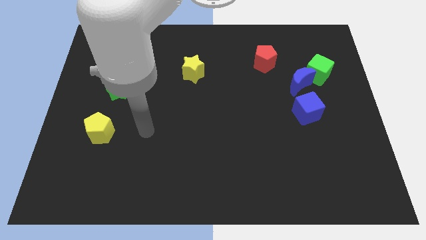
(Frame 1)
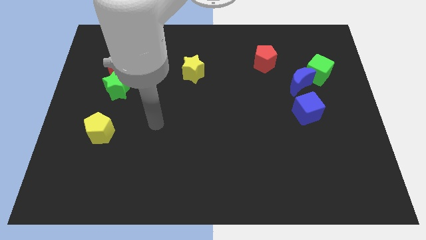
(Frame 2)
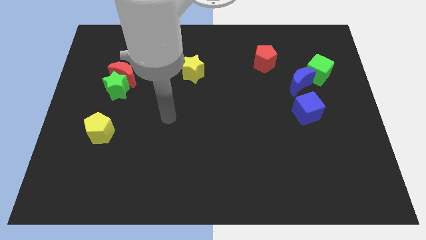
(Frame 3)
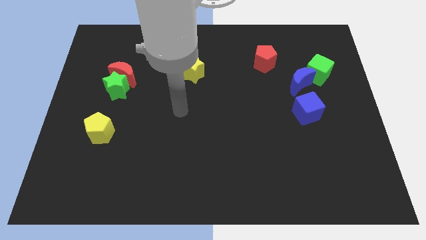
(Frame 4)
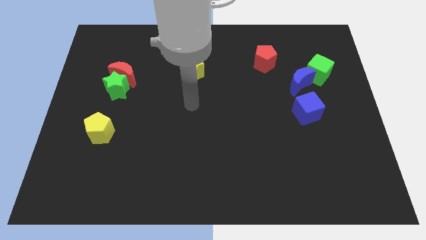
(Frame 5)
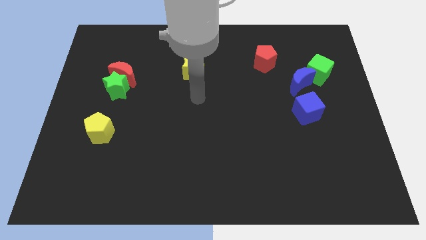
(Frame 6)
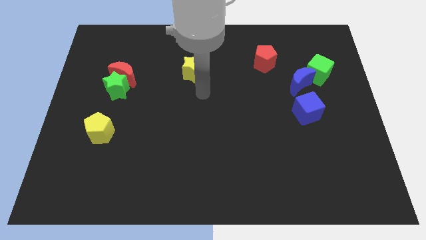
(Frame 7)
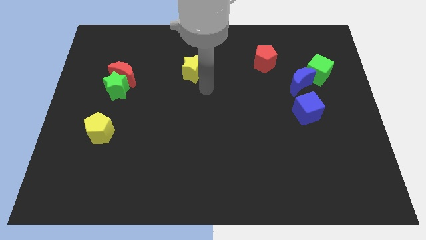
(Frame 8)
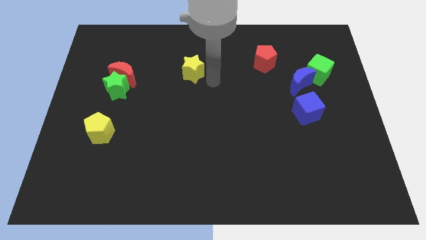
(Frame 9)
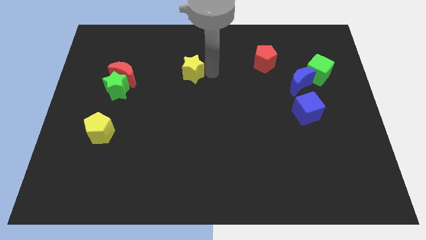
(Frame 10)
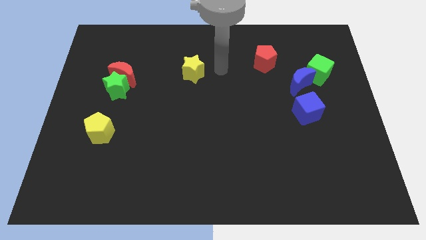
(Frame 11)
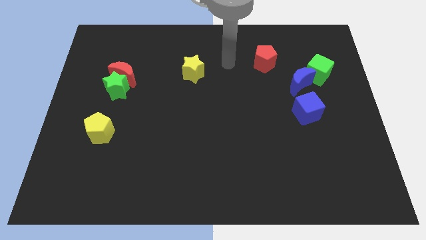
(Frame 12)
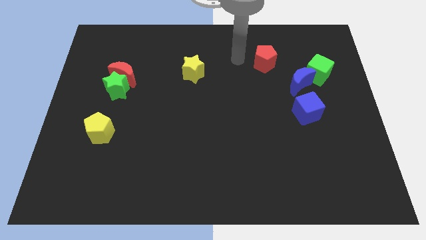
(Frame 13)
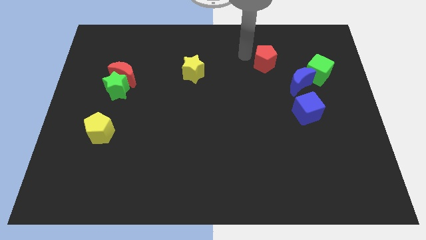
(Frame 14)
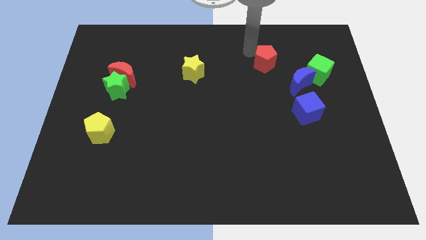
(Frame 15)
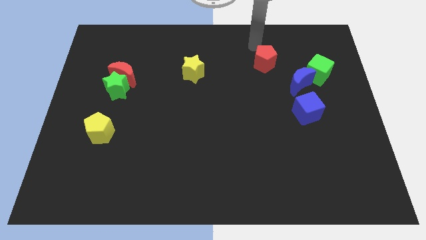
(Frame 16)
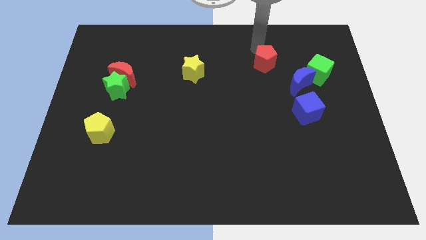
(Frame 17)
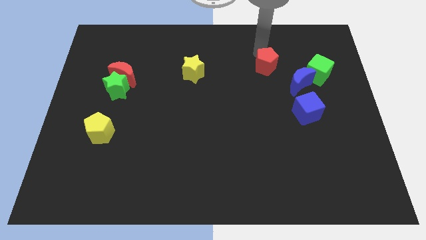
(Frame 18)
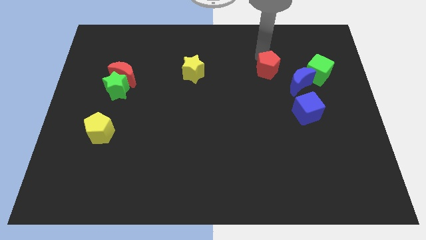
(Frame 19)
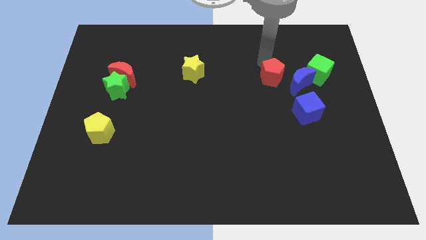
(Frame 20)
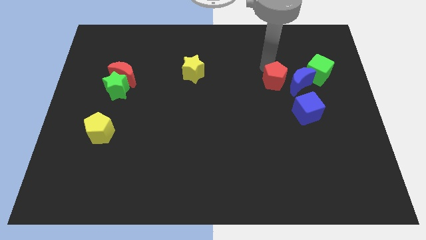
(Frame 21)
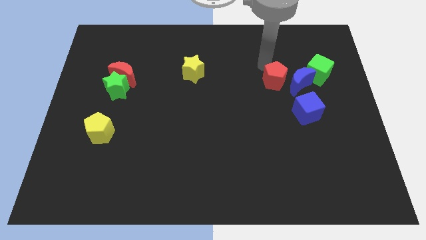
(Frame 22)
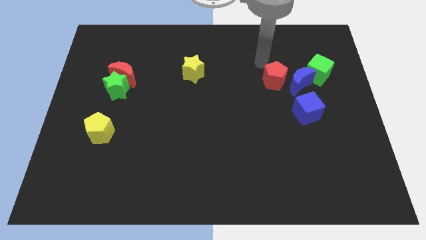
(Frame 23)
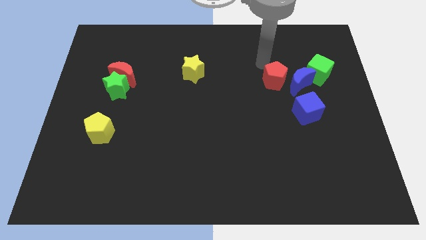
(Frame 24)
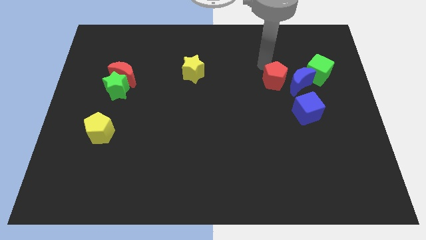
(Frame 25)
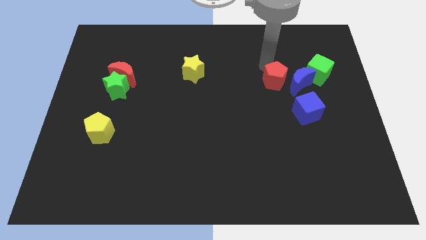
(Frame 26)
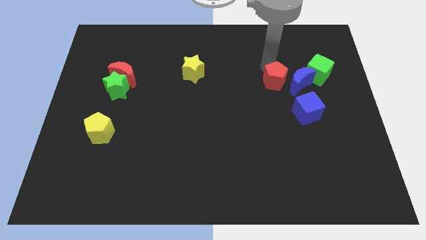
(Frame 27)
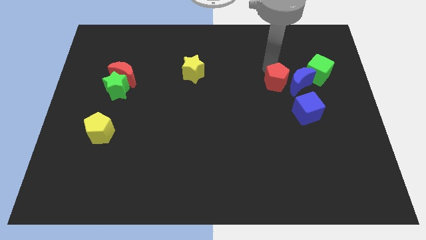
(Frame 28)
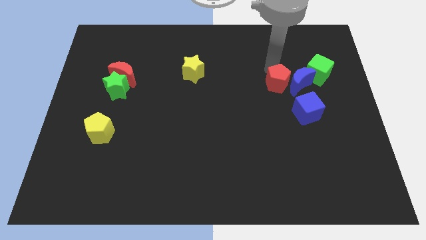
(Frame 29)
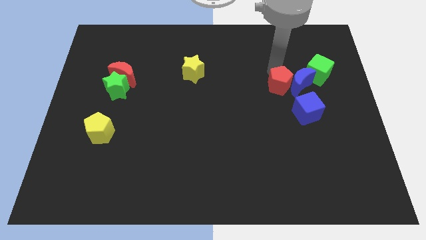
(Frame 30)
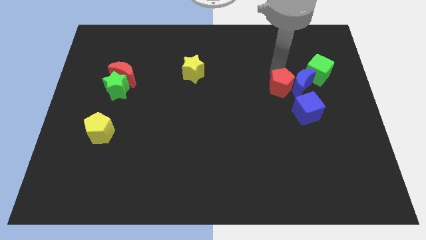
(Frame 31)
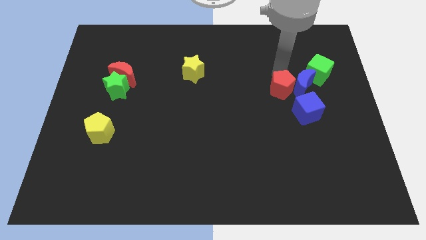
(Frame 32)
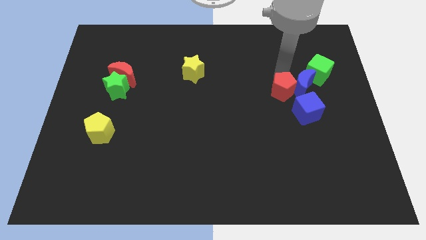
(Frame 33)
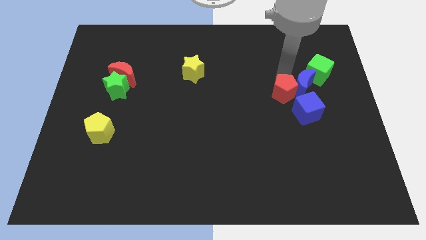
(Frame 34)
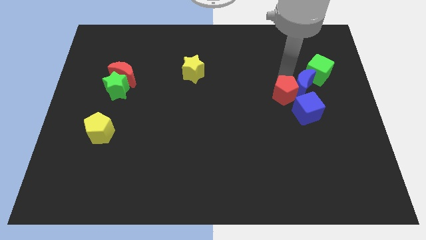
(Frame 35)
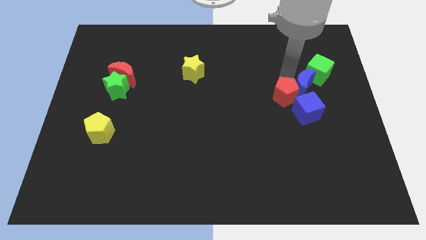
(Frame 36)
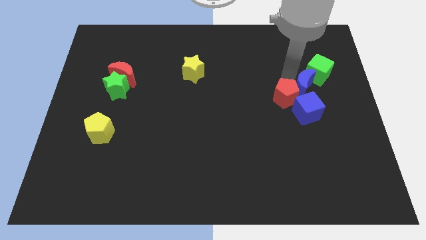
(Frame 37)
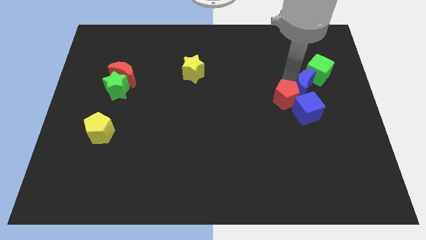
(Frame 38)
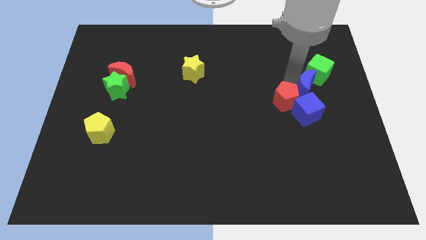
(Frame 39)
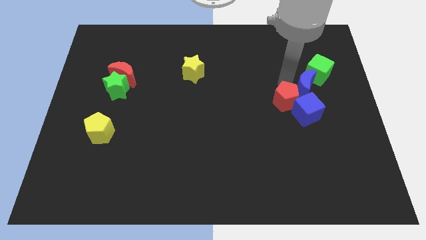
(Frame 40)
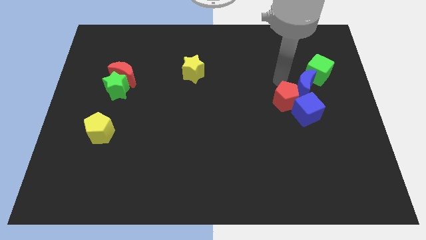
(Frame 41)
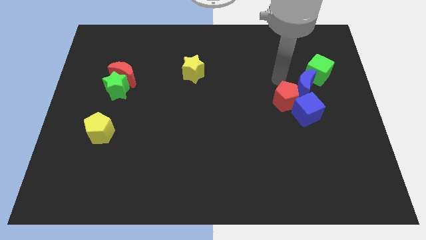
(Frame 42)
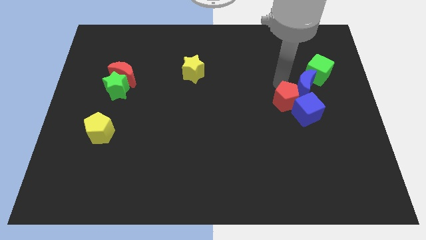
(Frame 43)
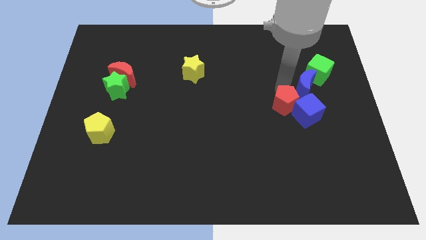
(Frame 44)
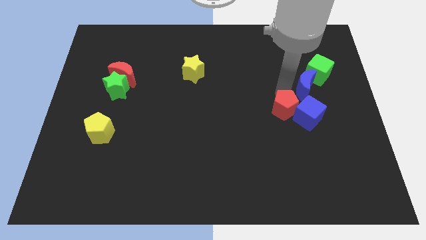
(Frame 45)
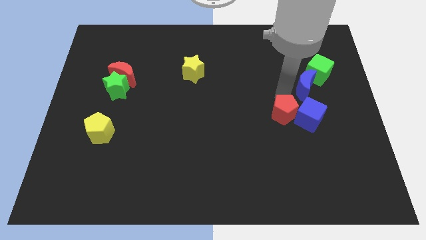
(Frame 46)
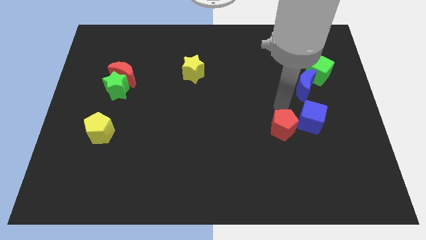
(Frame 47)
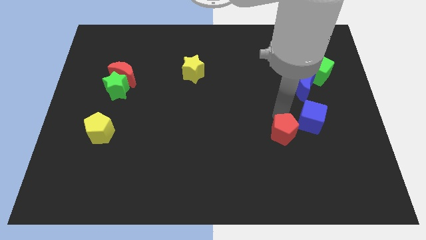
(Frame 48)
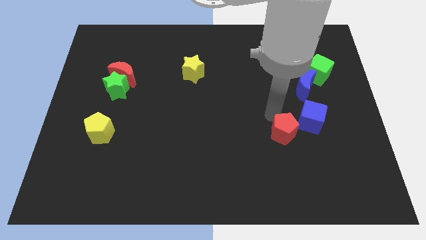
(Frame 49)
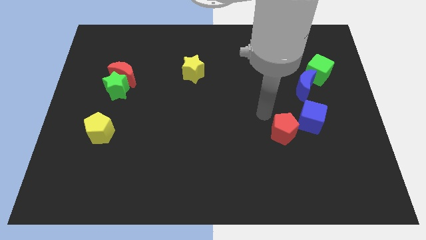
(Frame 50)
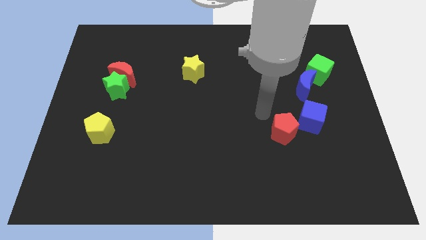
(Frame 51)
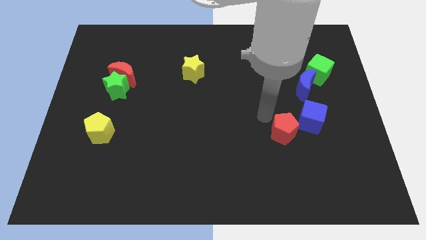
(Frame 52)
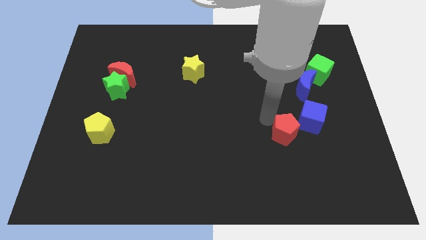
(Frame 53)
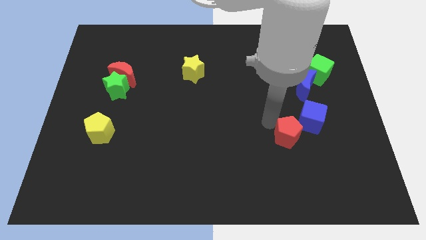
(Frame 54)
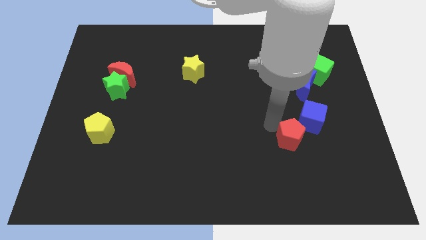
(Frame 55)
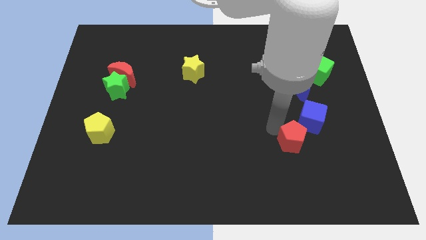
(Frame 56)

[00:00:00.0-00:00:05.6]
move the red pentagon to the bottom of the blue cube

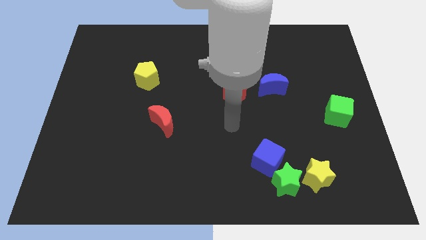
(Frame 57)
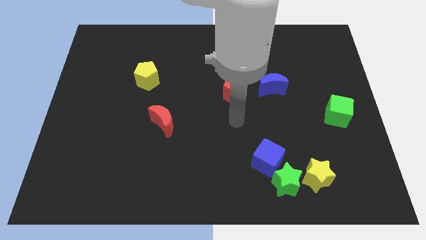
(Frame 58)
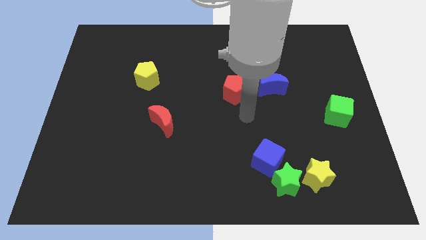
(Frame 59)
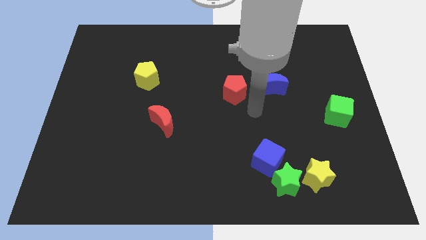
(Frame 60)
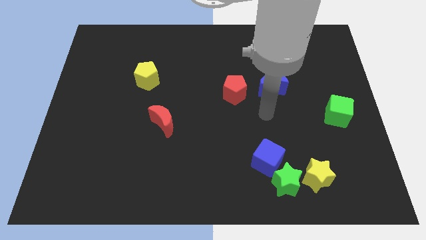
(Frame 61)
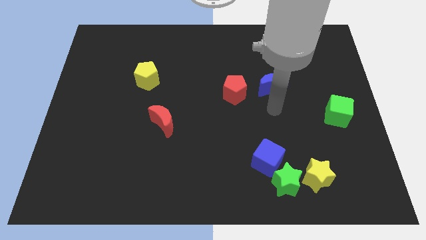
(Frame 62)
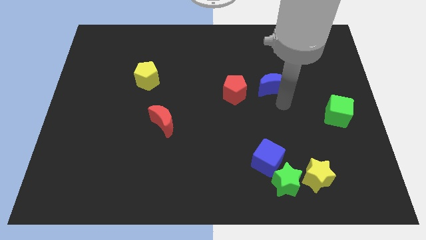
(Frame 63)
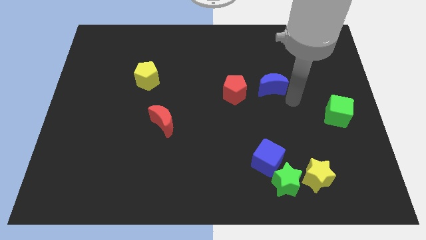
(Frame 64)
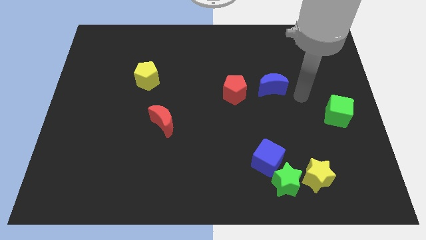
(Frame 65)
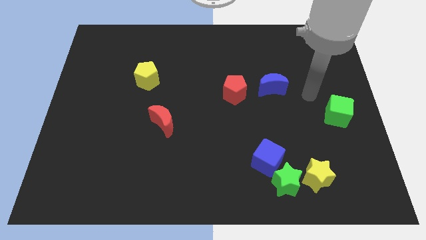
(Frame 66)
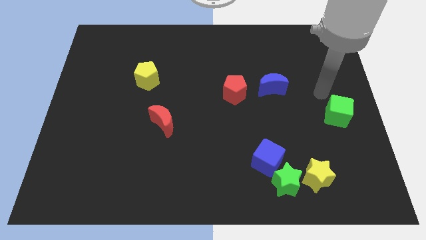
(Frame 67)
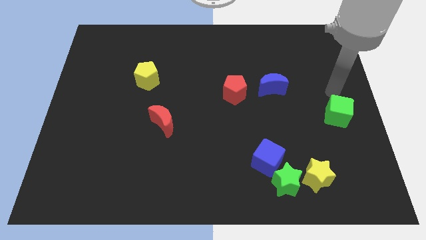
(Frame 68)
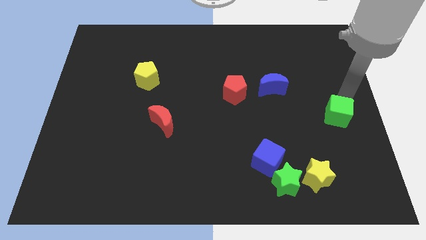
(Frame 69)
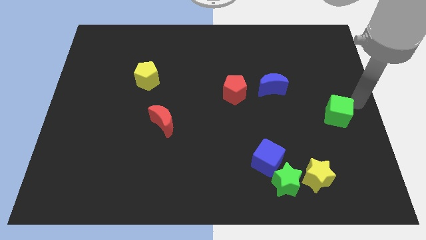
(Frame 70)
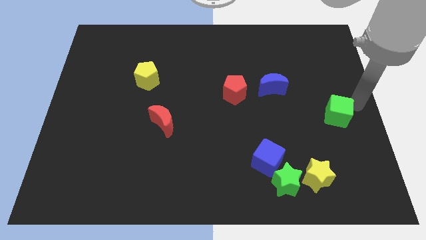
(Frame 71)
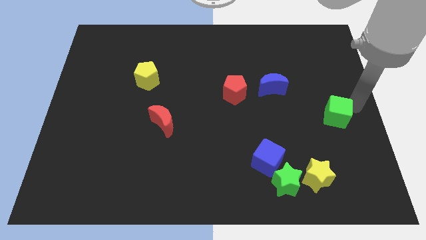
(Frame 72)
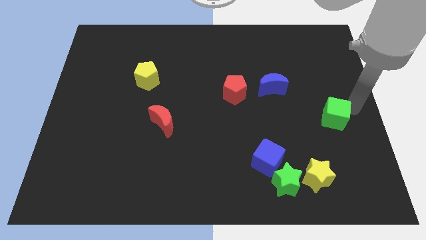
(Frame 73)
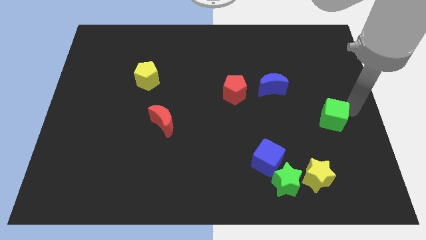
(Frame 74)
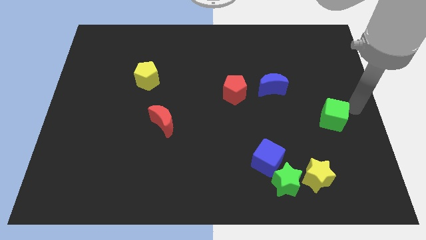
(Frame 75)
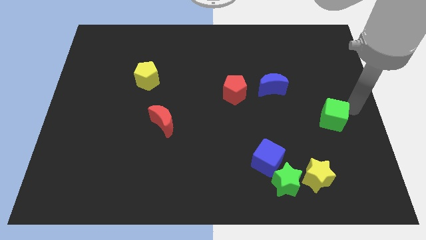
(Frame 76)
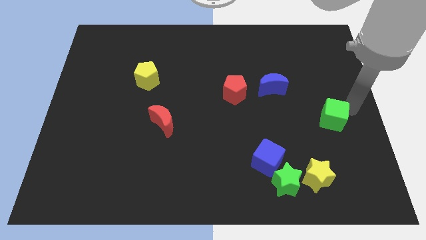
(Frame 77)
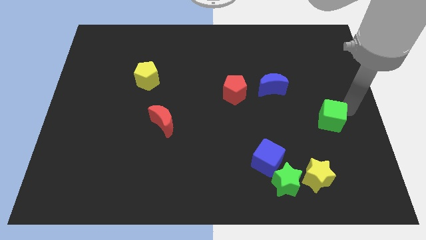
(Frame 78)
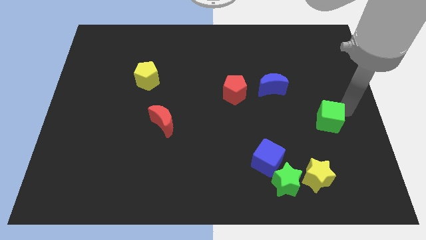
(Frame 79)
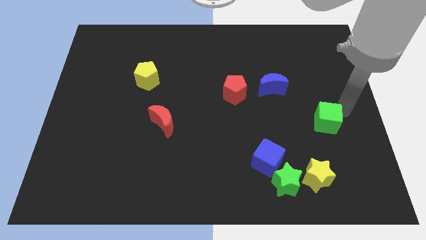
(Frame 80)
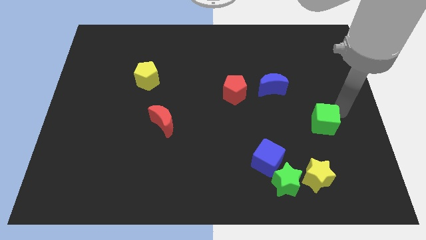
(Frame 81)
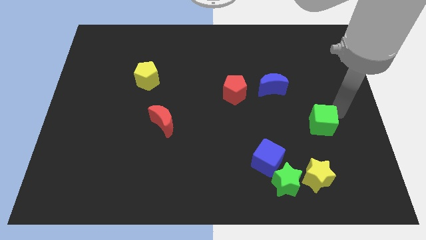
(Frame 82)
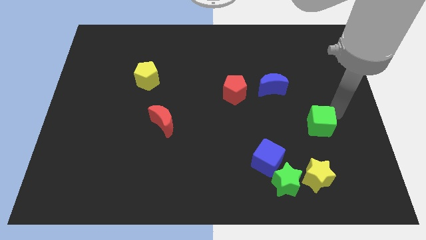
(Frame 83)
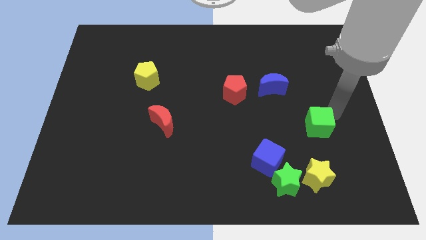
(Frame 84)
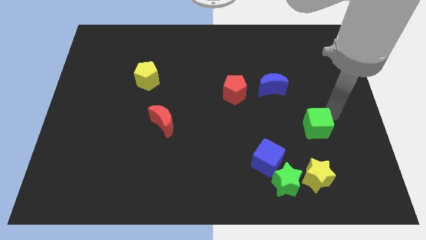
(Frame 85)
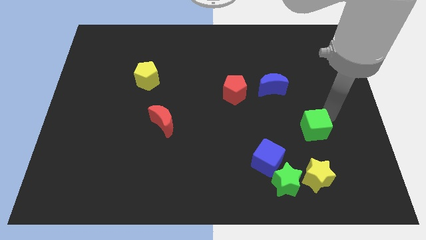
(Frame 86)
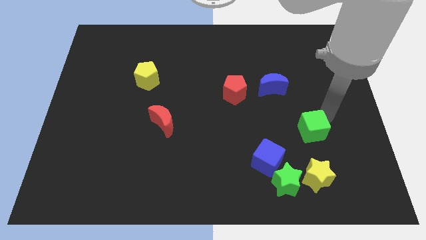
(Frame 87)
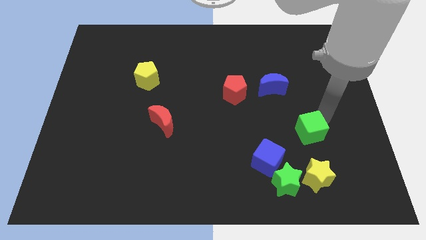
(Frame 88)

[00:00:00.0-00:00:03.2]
put the green cube diagonally up and to the right of the blue cube
